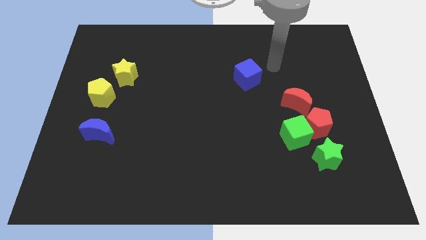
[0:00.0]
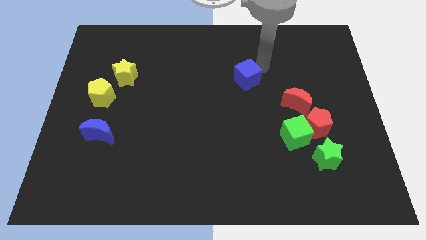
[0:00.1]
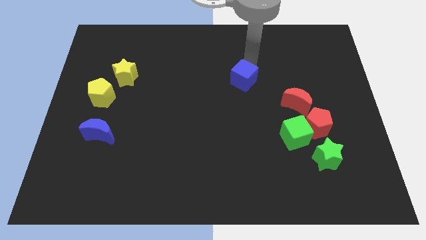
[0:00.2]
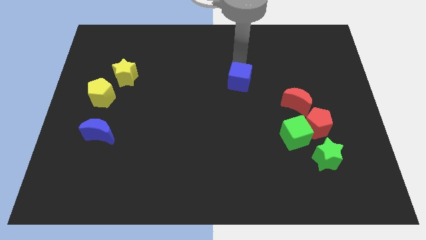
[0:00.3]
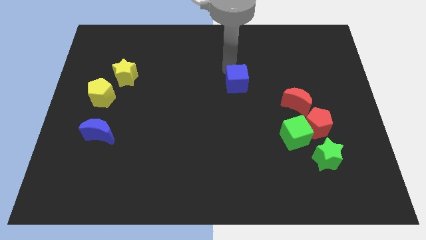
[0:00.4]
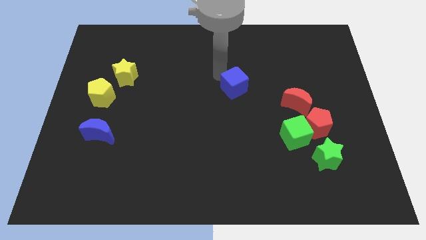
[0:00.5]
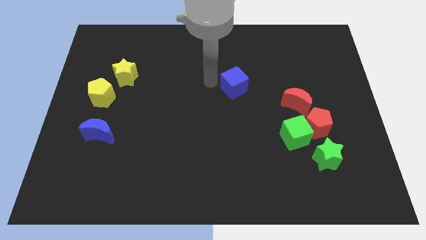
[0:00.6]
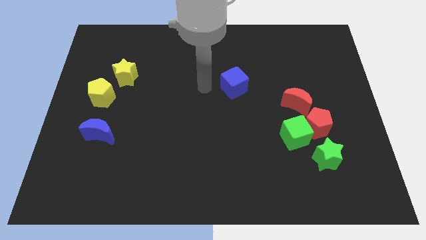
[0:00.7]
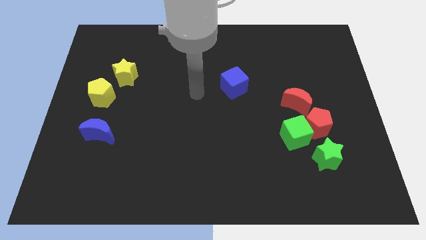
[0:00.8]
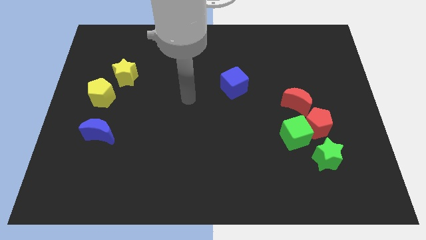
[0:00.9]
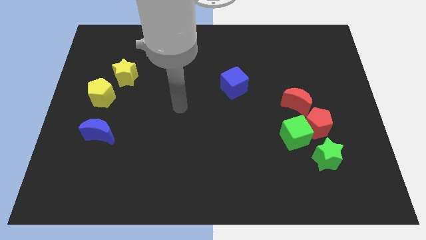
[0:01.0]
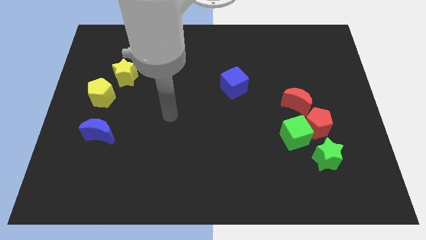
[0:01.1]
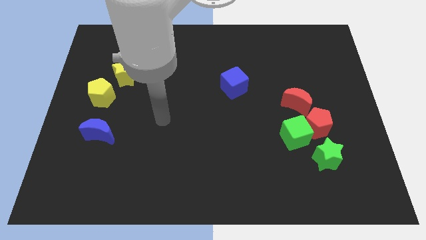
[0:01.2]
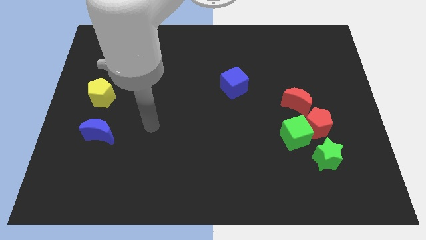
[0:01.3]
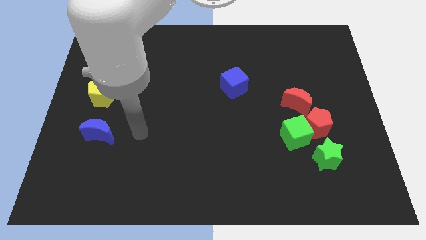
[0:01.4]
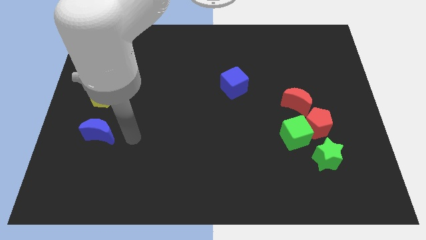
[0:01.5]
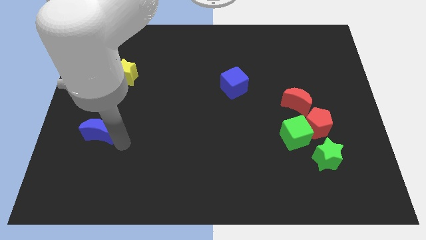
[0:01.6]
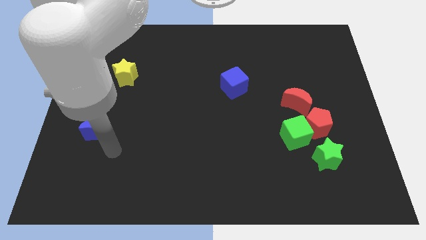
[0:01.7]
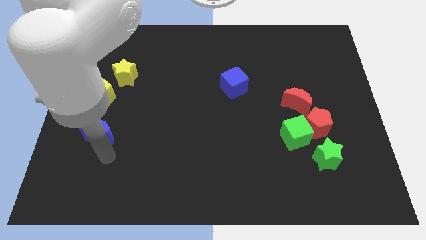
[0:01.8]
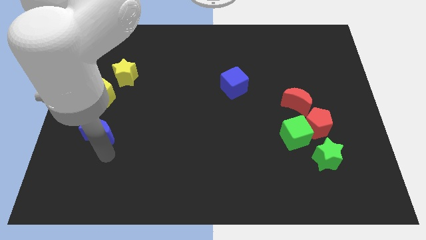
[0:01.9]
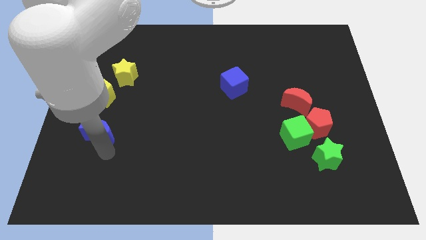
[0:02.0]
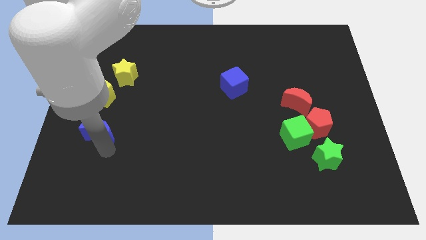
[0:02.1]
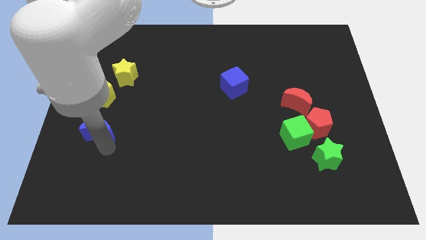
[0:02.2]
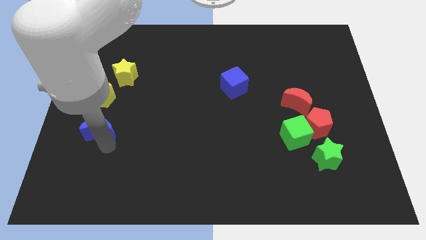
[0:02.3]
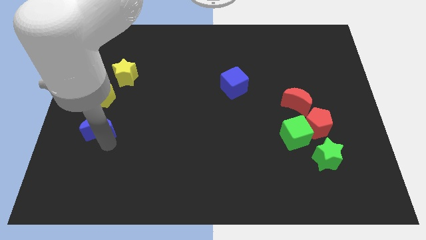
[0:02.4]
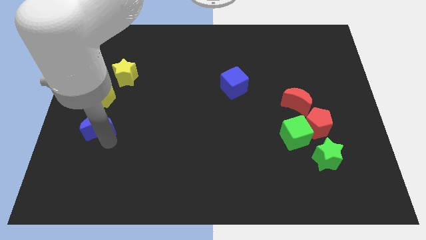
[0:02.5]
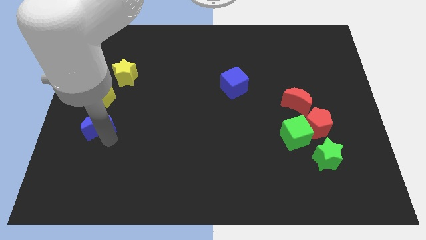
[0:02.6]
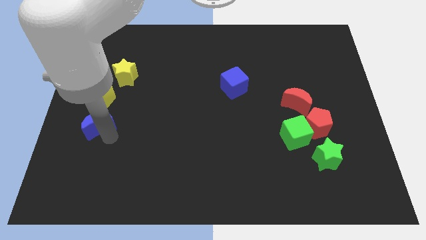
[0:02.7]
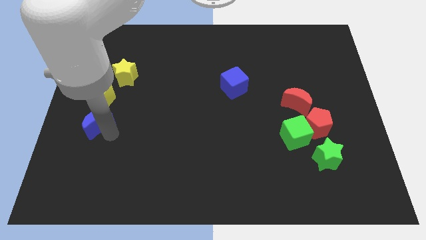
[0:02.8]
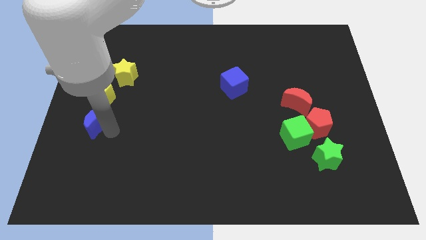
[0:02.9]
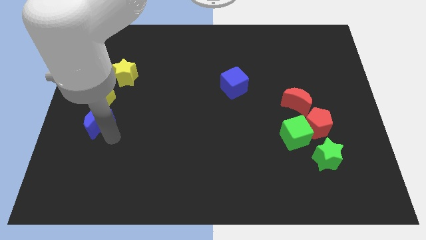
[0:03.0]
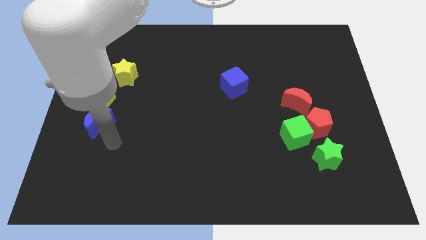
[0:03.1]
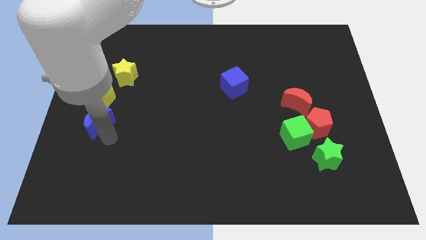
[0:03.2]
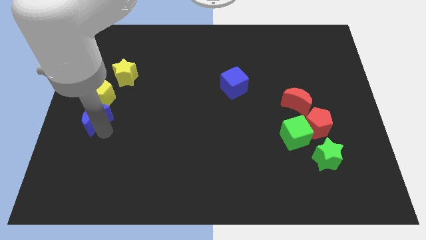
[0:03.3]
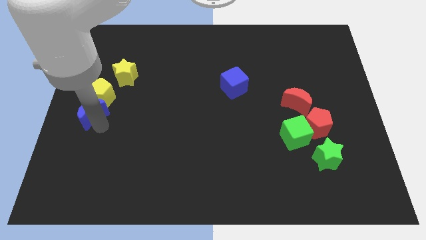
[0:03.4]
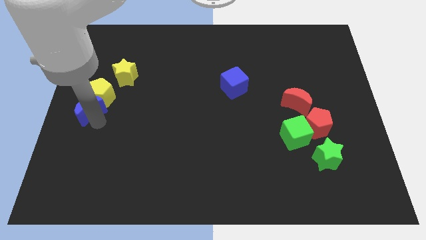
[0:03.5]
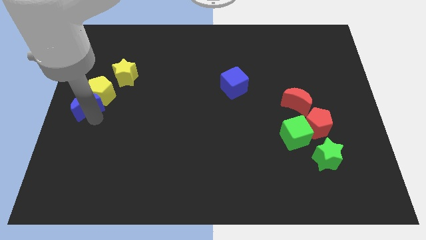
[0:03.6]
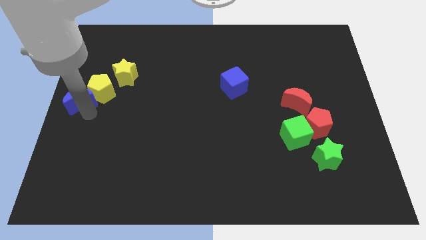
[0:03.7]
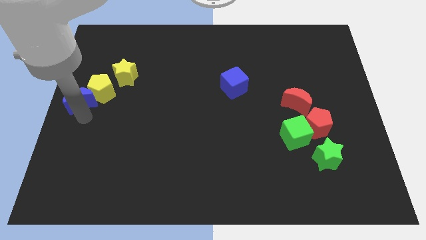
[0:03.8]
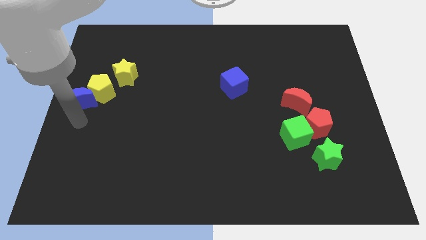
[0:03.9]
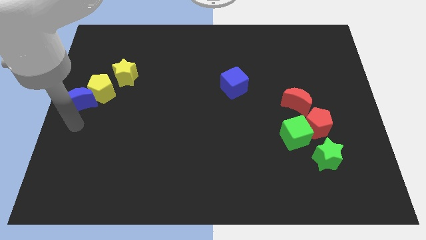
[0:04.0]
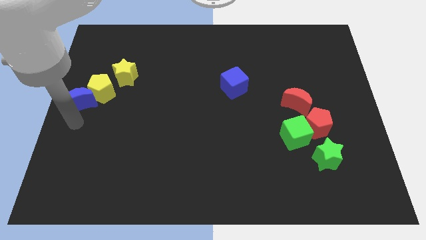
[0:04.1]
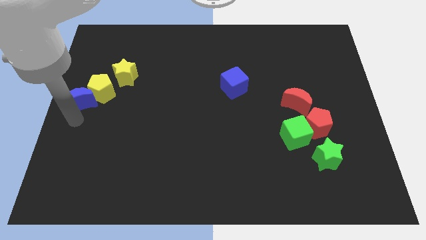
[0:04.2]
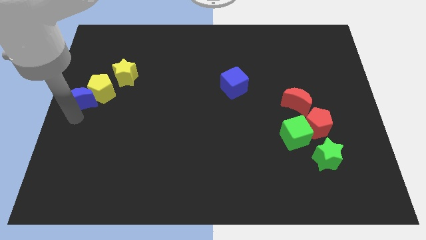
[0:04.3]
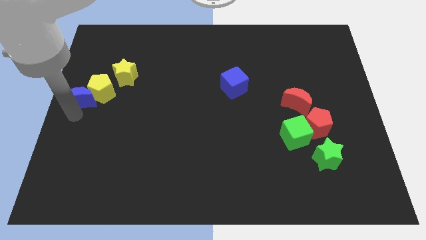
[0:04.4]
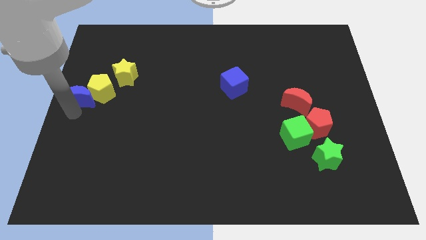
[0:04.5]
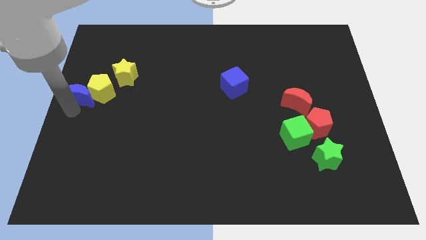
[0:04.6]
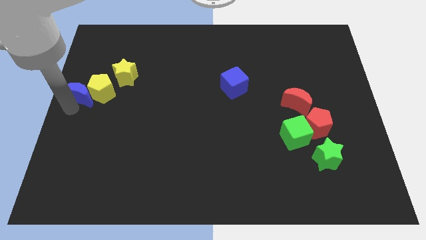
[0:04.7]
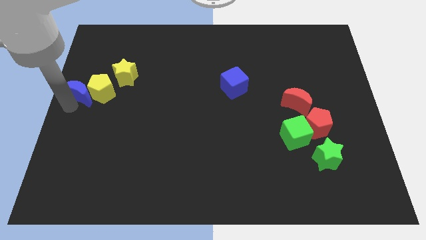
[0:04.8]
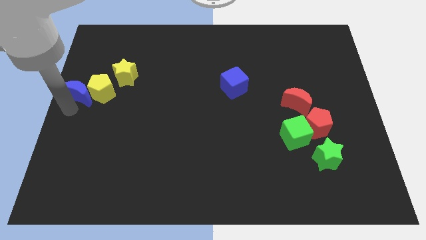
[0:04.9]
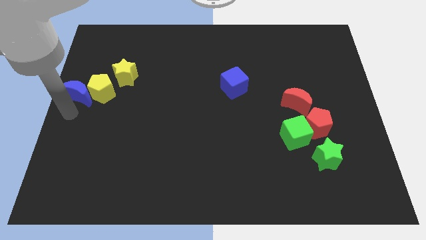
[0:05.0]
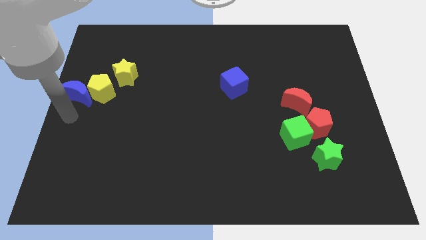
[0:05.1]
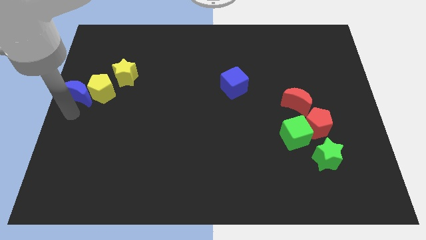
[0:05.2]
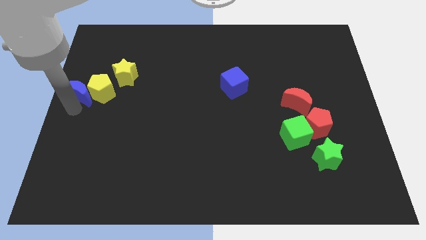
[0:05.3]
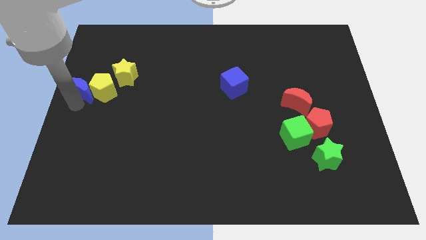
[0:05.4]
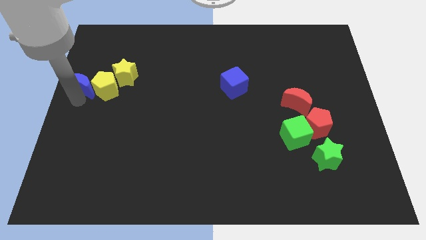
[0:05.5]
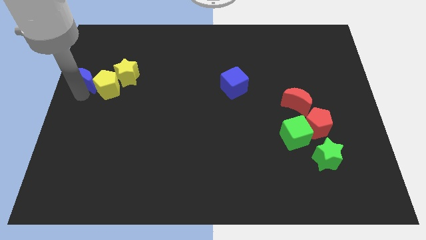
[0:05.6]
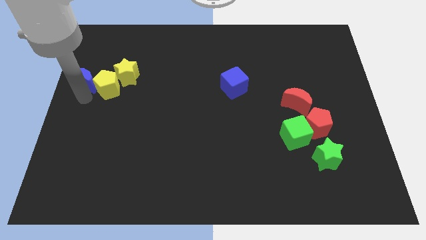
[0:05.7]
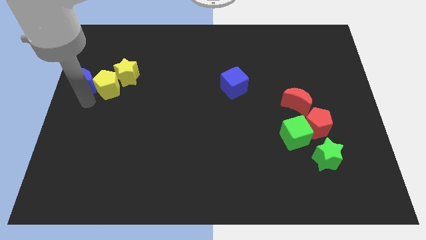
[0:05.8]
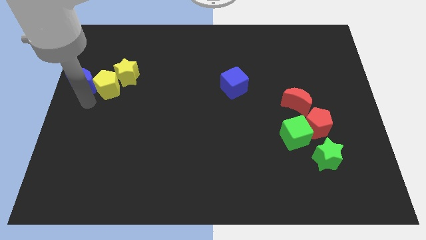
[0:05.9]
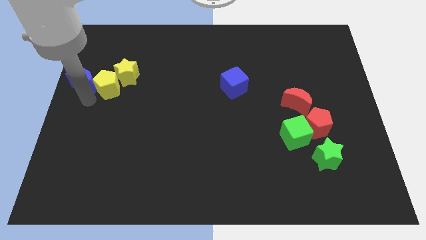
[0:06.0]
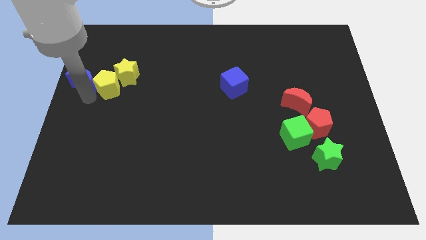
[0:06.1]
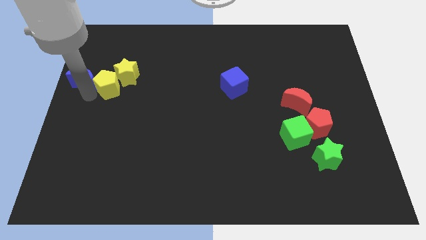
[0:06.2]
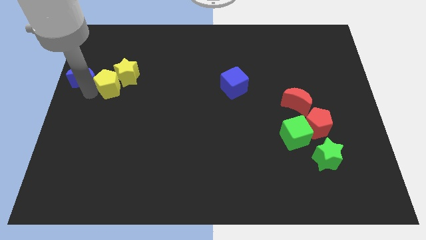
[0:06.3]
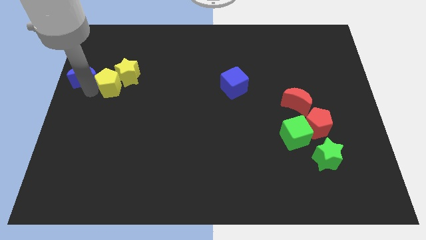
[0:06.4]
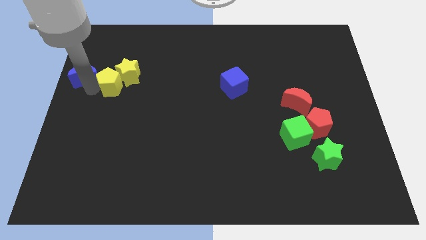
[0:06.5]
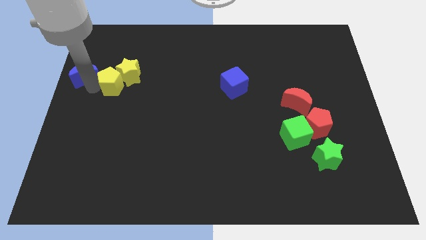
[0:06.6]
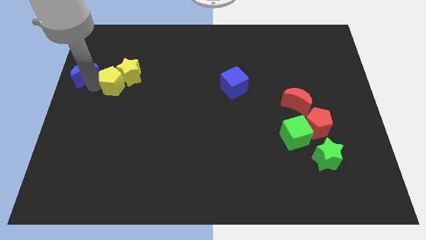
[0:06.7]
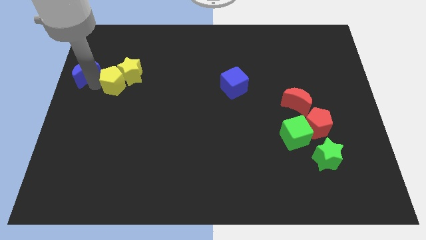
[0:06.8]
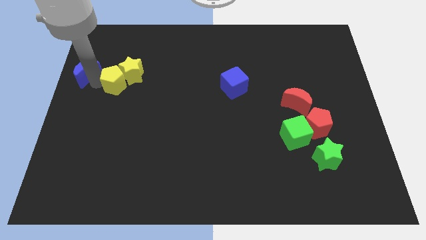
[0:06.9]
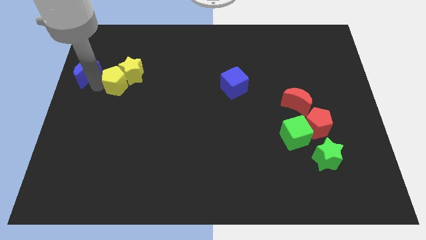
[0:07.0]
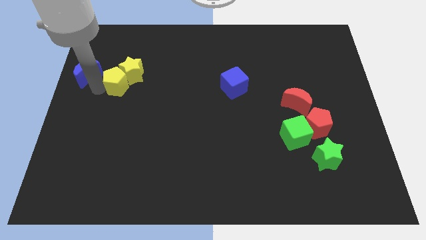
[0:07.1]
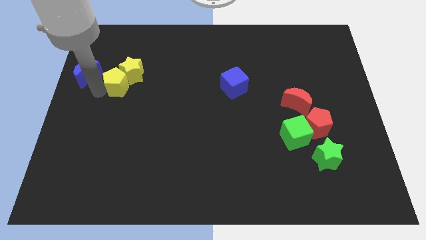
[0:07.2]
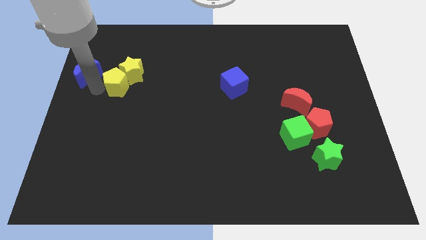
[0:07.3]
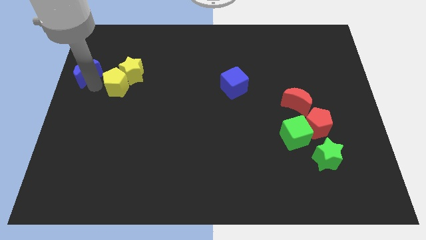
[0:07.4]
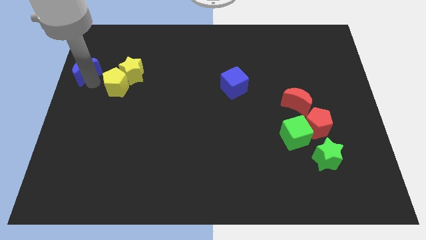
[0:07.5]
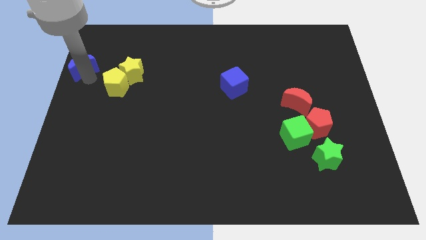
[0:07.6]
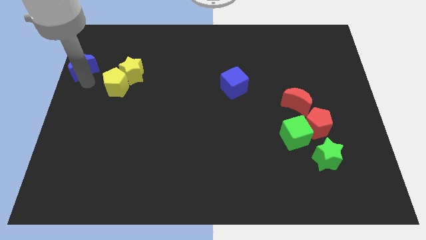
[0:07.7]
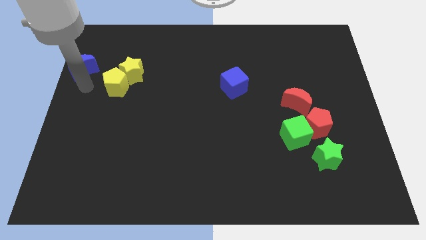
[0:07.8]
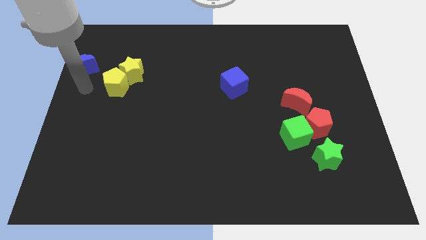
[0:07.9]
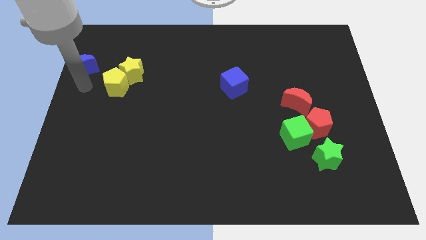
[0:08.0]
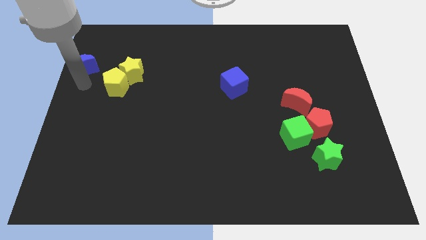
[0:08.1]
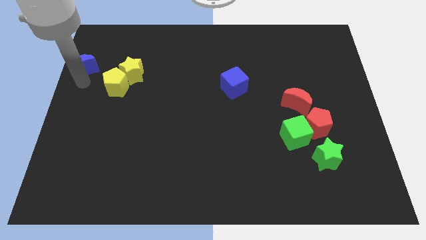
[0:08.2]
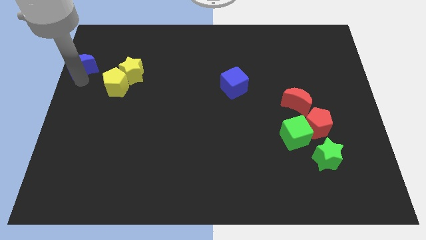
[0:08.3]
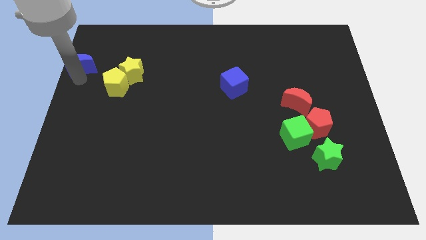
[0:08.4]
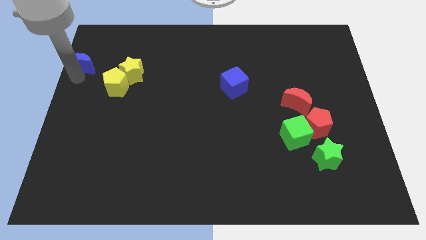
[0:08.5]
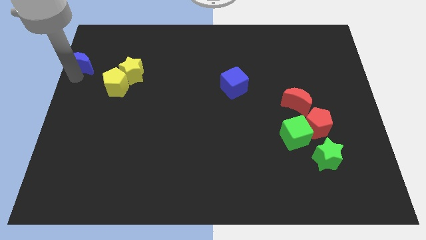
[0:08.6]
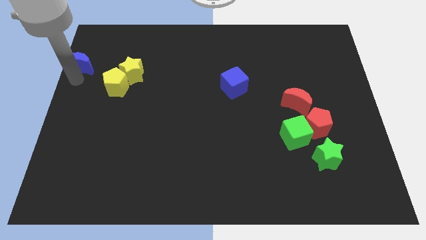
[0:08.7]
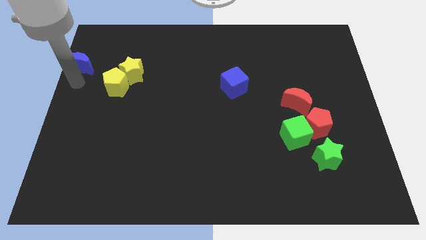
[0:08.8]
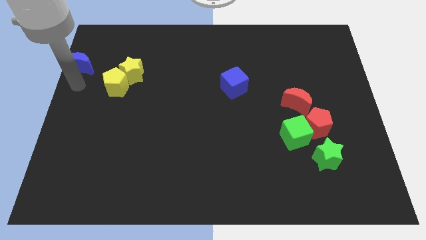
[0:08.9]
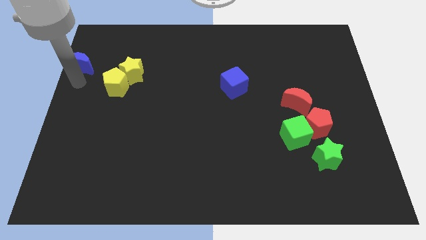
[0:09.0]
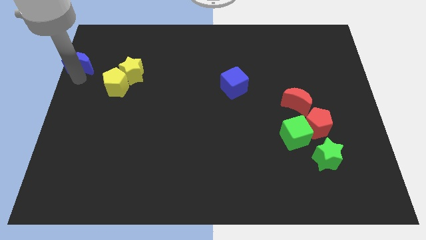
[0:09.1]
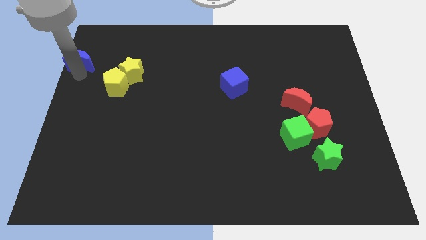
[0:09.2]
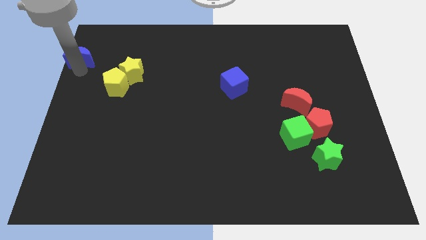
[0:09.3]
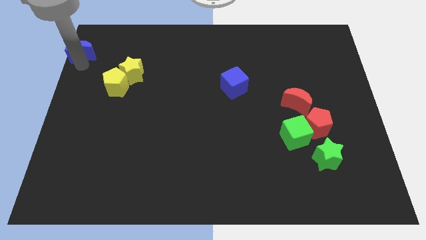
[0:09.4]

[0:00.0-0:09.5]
put the blue moon to the top left
